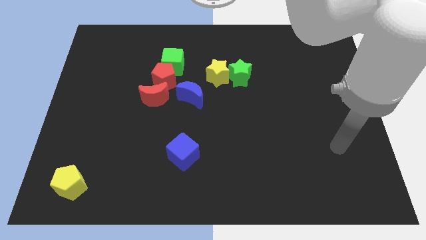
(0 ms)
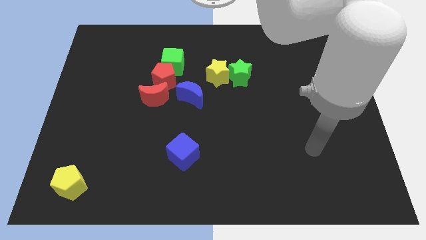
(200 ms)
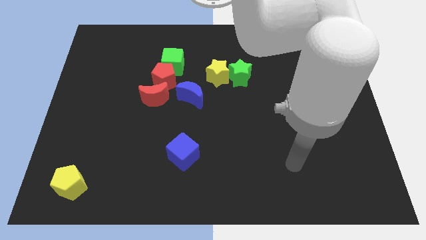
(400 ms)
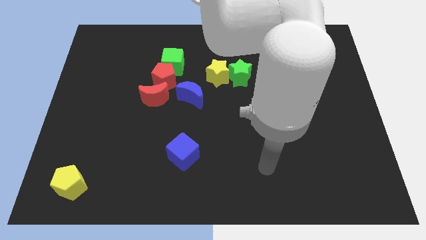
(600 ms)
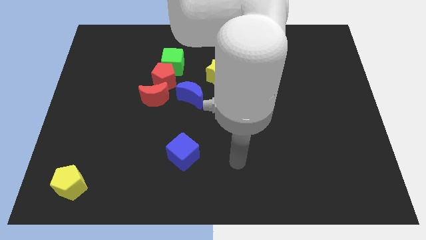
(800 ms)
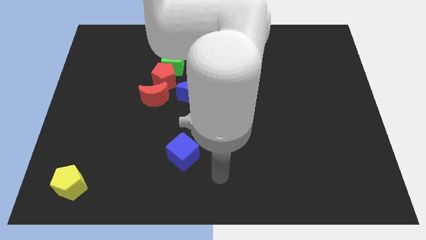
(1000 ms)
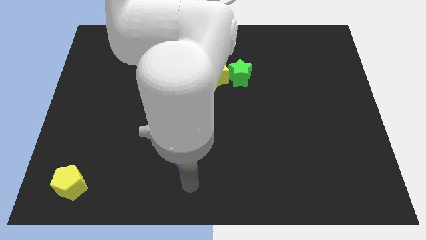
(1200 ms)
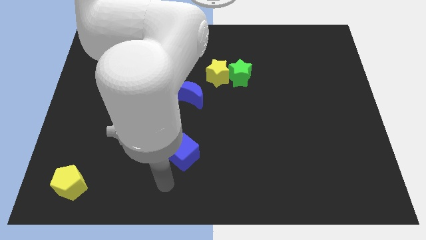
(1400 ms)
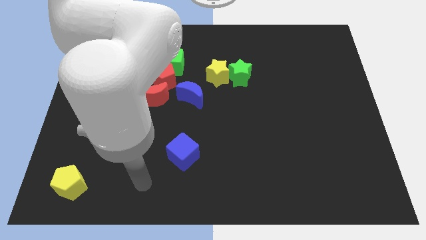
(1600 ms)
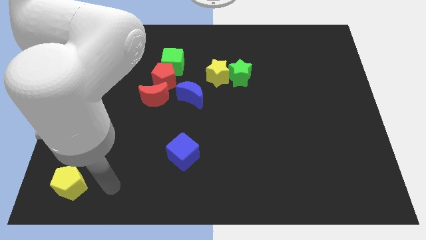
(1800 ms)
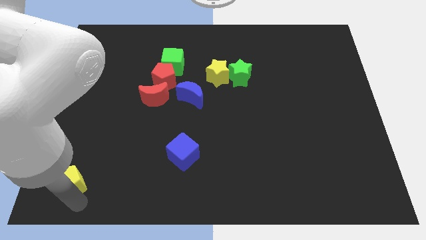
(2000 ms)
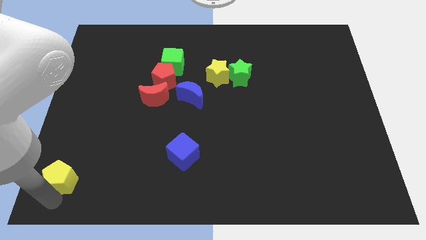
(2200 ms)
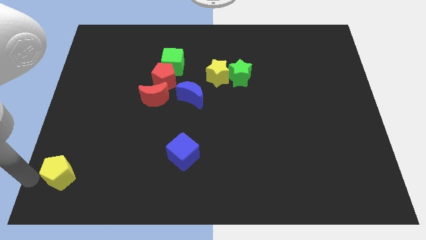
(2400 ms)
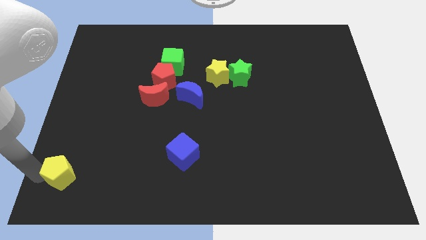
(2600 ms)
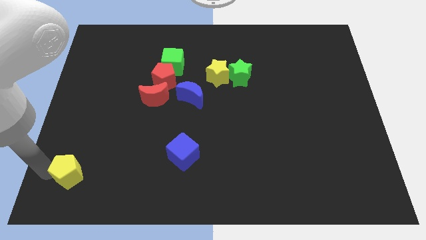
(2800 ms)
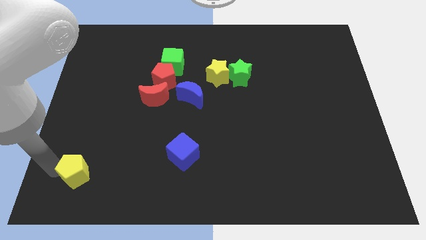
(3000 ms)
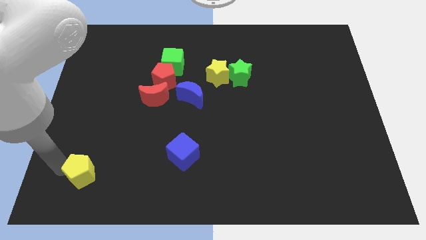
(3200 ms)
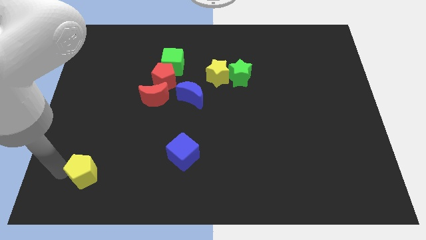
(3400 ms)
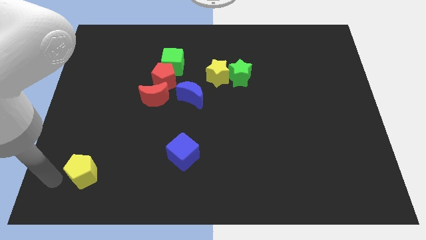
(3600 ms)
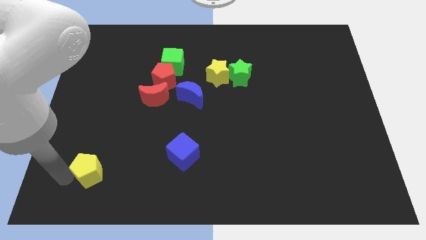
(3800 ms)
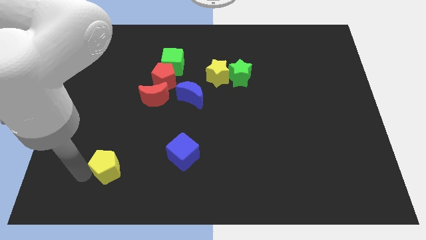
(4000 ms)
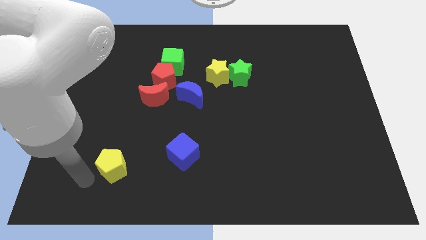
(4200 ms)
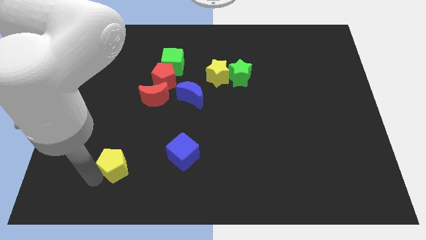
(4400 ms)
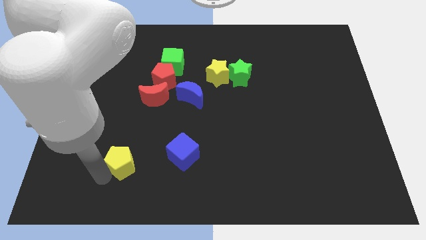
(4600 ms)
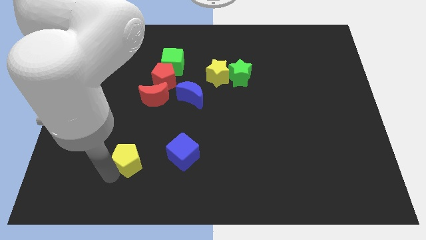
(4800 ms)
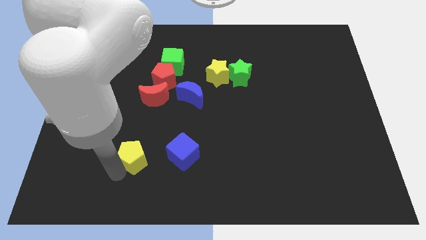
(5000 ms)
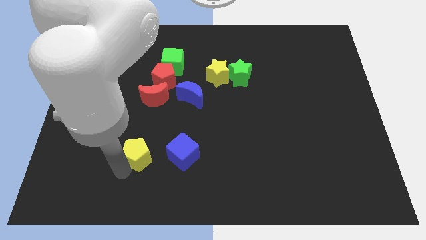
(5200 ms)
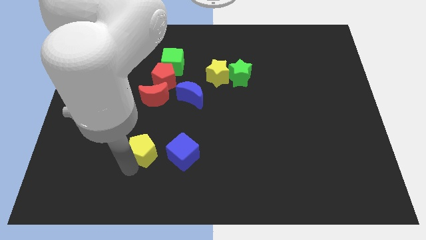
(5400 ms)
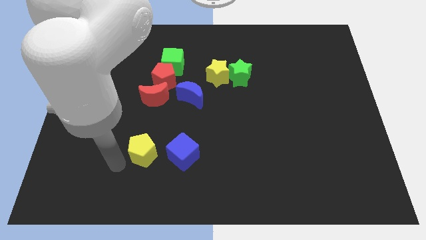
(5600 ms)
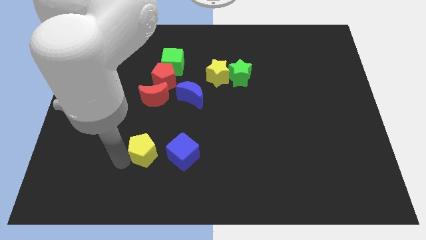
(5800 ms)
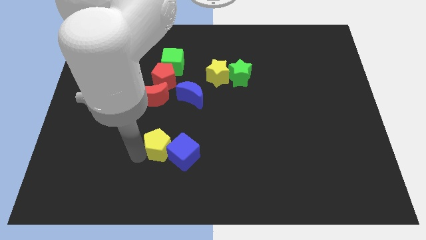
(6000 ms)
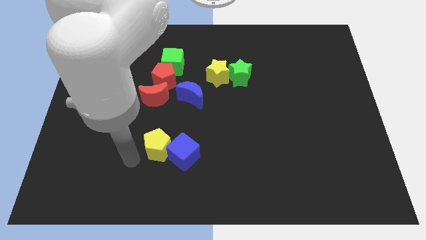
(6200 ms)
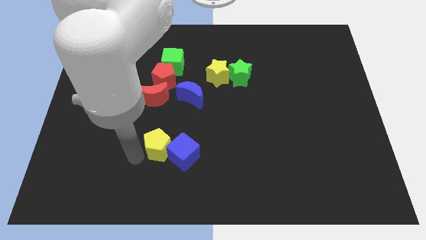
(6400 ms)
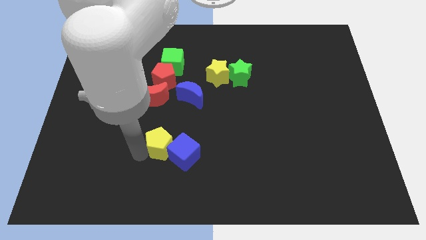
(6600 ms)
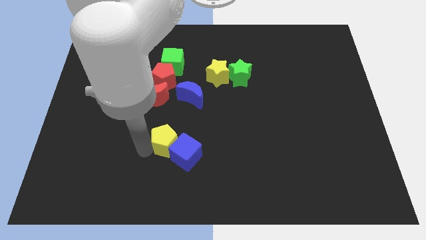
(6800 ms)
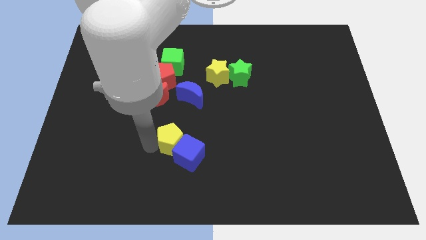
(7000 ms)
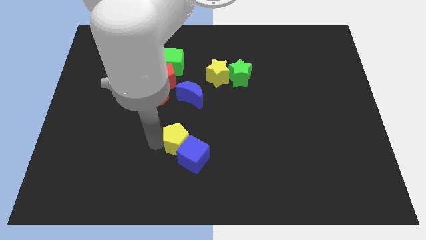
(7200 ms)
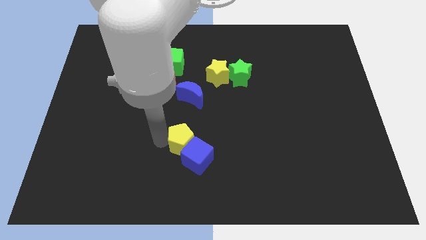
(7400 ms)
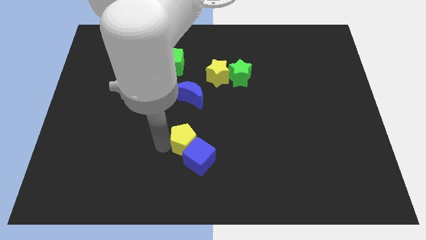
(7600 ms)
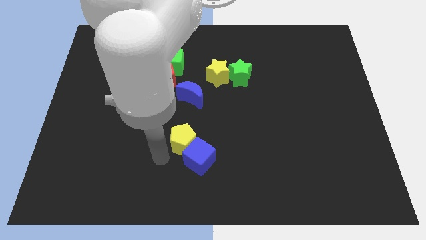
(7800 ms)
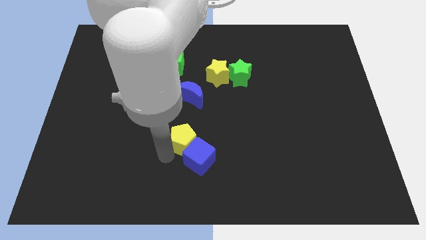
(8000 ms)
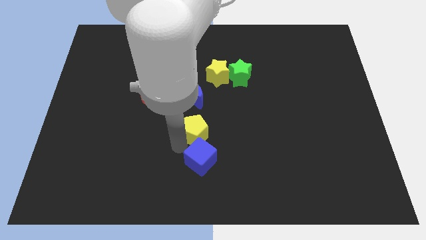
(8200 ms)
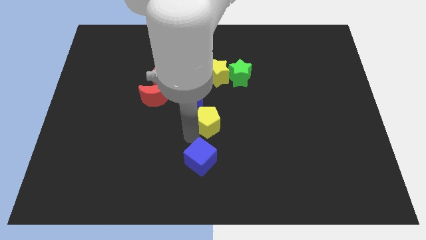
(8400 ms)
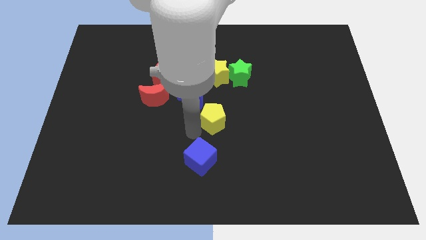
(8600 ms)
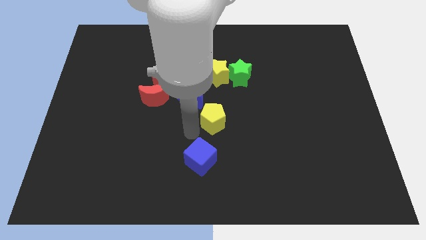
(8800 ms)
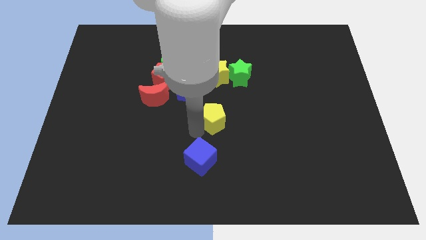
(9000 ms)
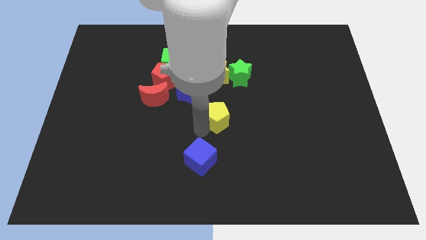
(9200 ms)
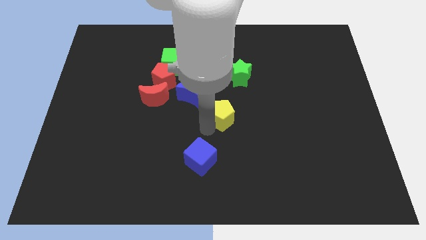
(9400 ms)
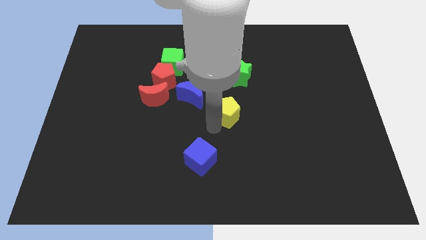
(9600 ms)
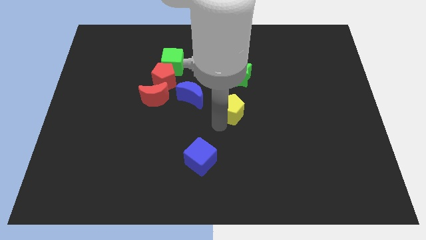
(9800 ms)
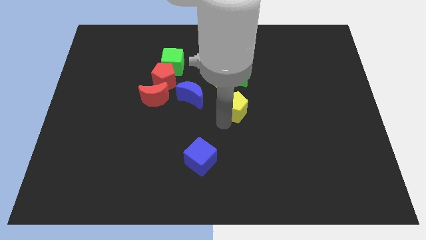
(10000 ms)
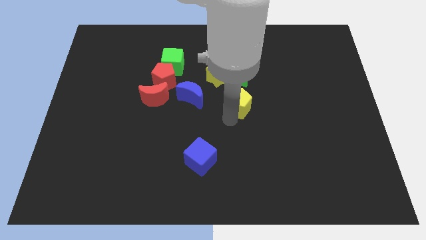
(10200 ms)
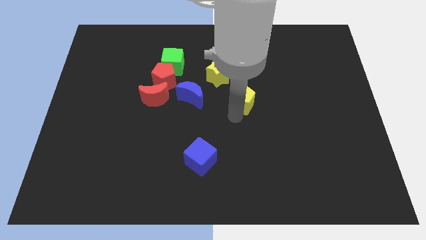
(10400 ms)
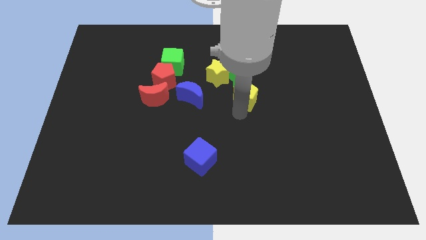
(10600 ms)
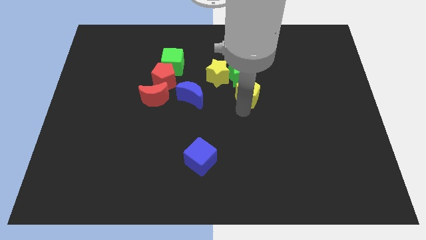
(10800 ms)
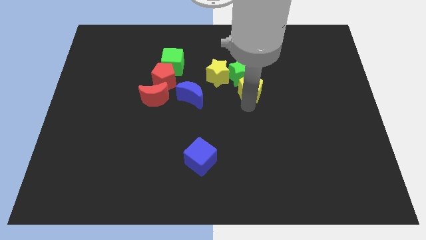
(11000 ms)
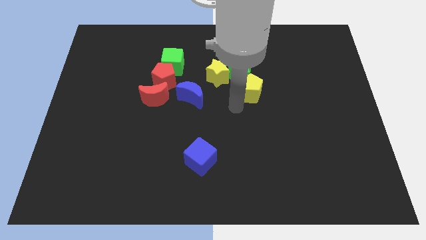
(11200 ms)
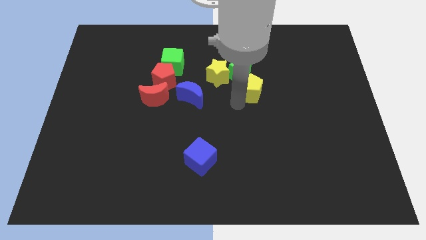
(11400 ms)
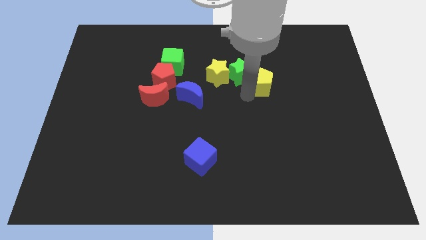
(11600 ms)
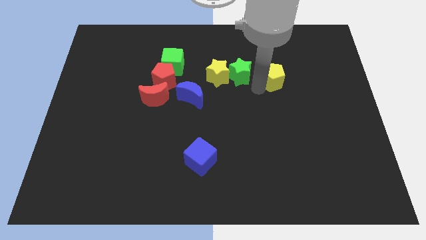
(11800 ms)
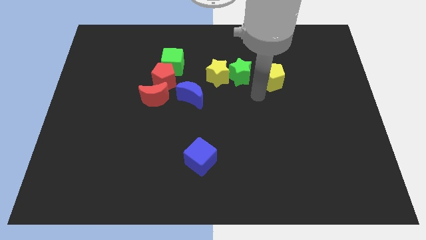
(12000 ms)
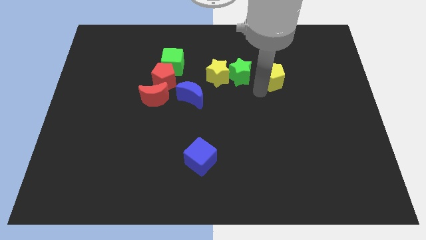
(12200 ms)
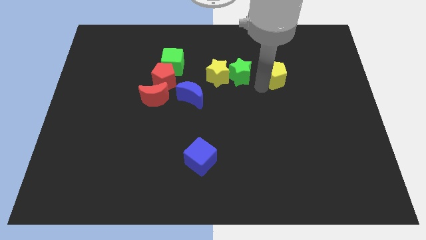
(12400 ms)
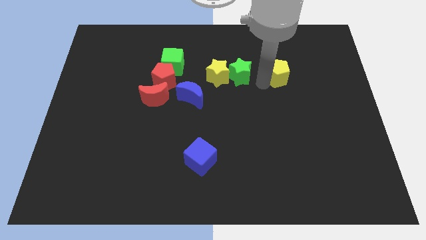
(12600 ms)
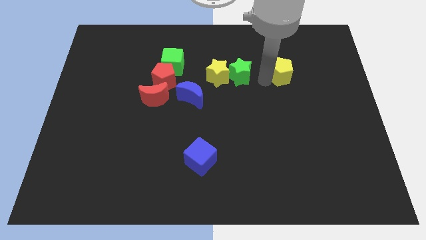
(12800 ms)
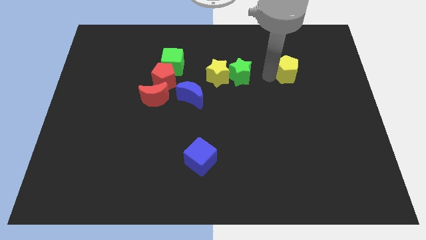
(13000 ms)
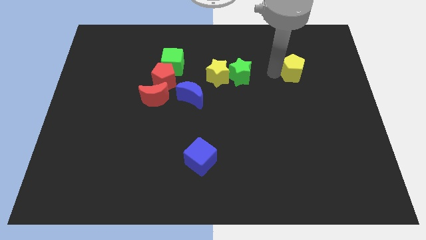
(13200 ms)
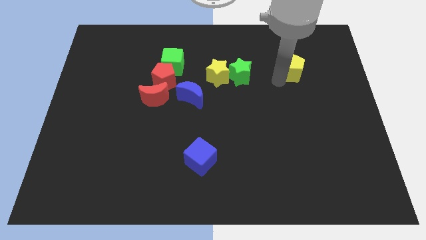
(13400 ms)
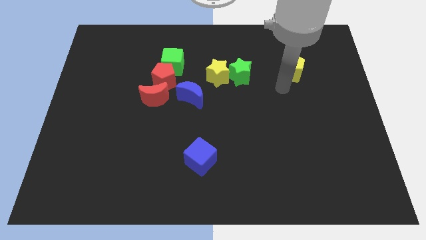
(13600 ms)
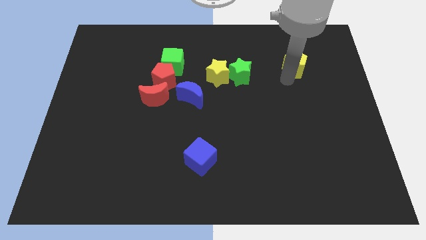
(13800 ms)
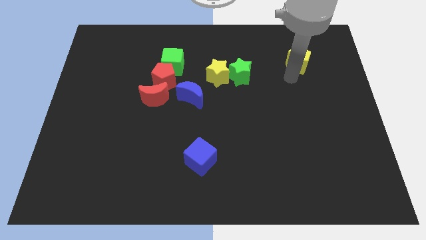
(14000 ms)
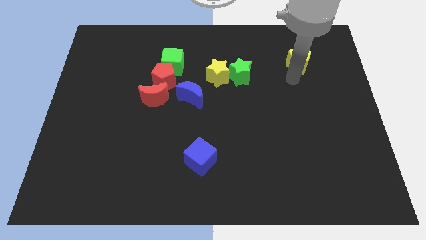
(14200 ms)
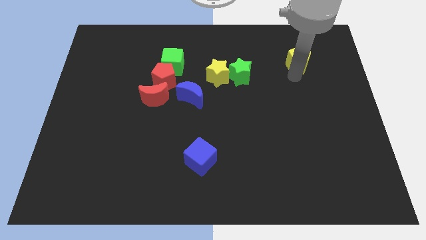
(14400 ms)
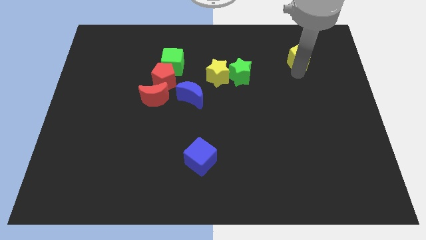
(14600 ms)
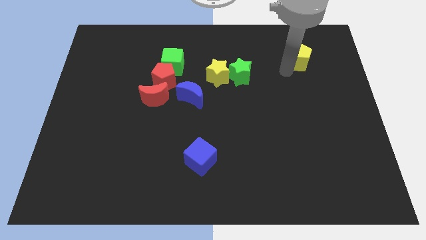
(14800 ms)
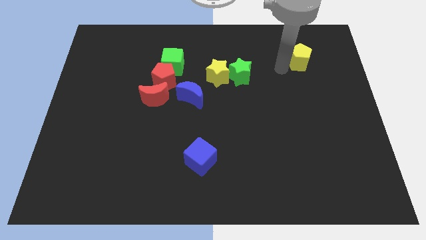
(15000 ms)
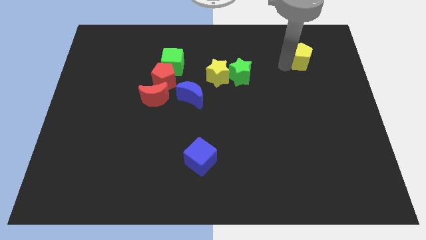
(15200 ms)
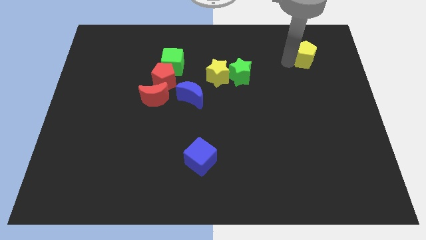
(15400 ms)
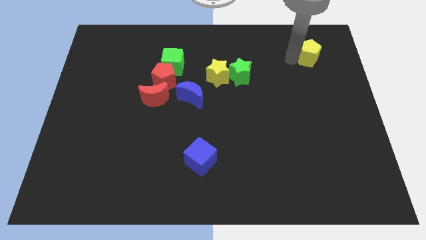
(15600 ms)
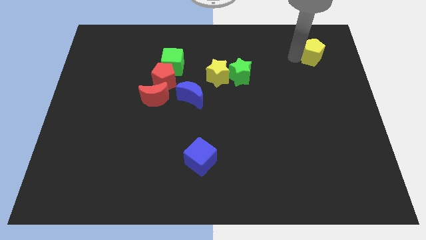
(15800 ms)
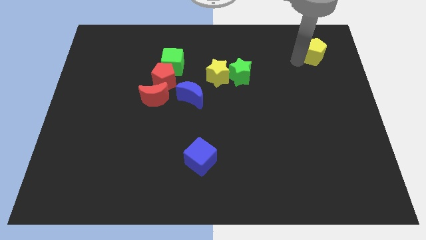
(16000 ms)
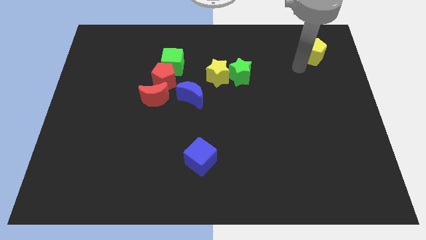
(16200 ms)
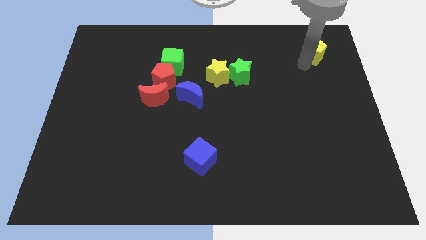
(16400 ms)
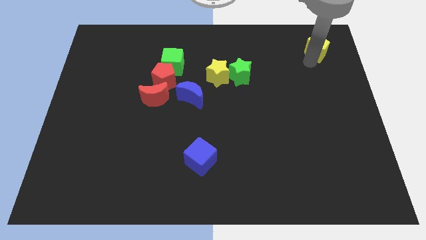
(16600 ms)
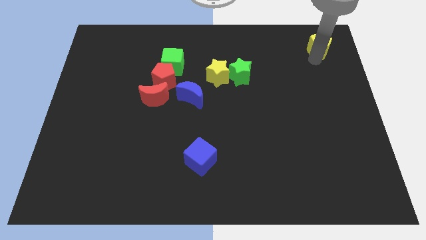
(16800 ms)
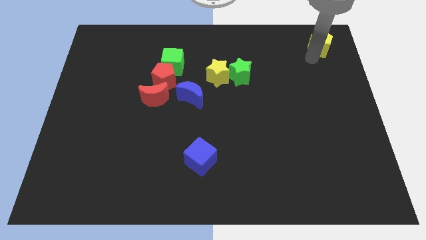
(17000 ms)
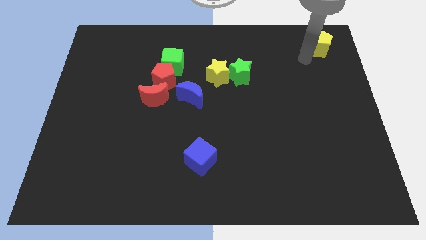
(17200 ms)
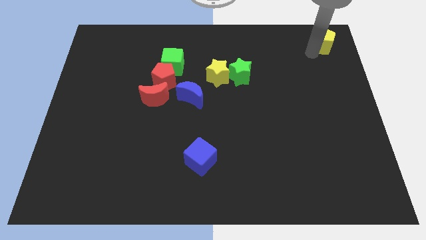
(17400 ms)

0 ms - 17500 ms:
push the yellow pentagon to the top right corner
